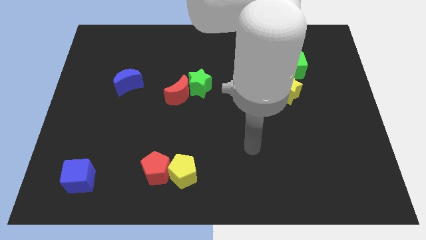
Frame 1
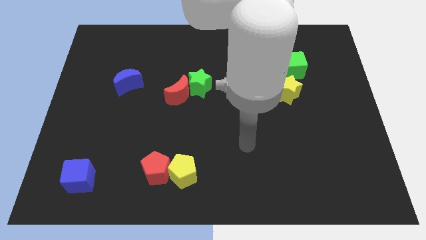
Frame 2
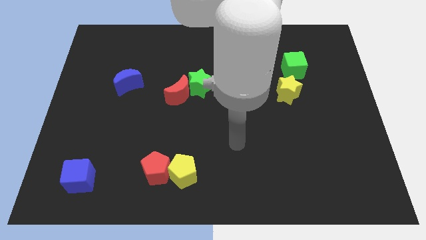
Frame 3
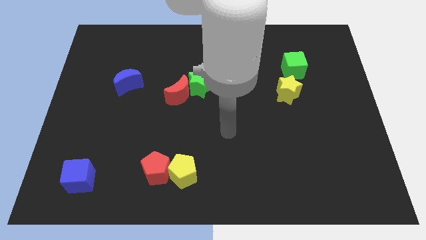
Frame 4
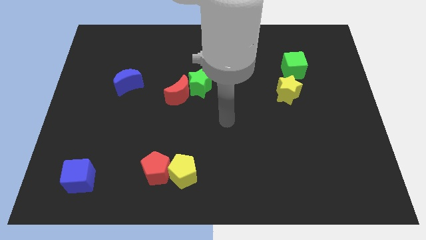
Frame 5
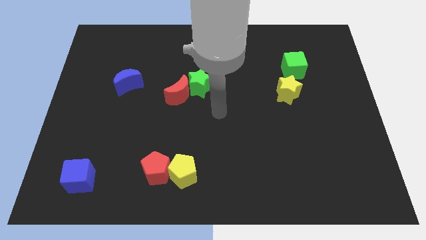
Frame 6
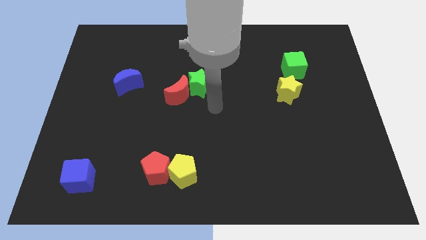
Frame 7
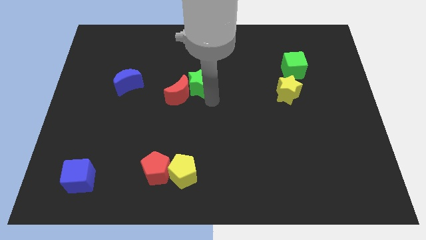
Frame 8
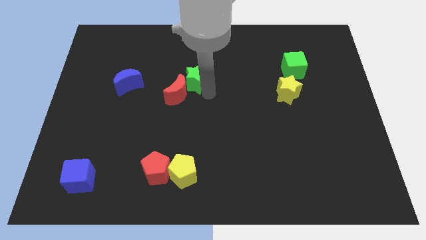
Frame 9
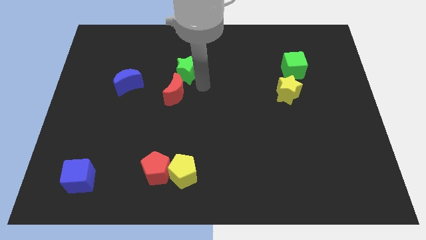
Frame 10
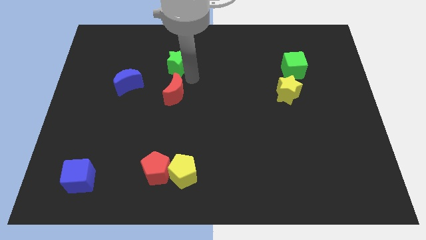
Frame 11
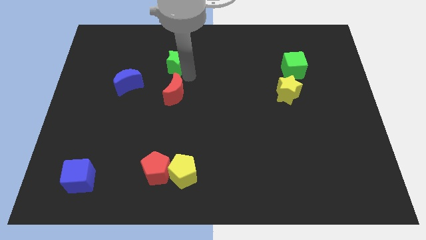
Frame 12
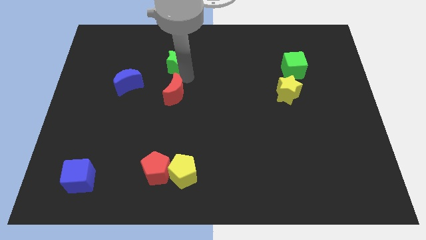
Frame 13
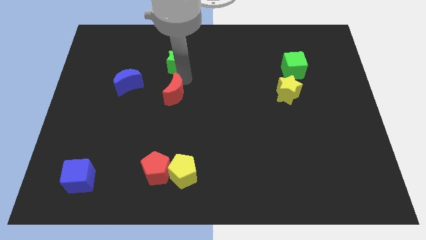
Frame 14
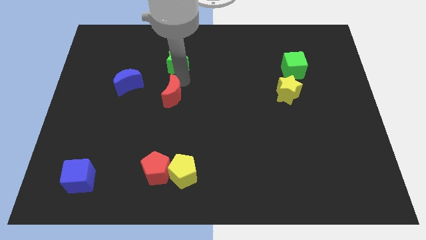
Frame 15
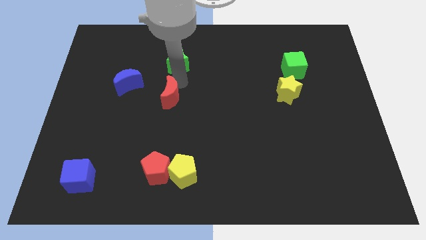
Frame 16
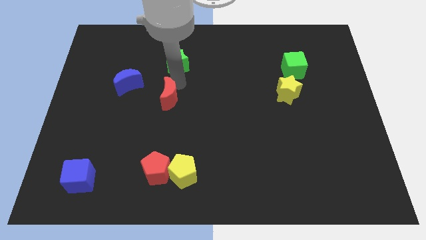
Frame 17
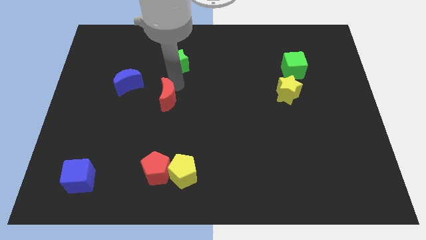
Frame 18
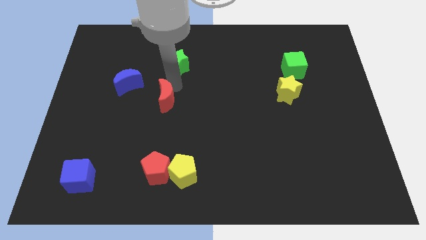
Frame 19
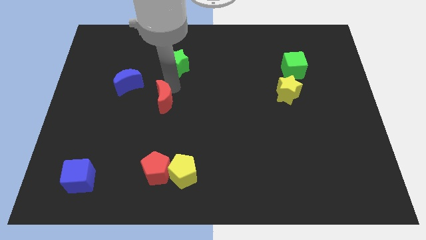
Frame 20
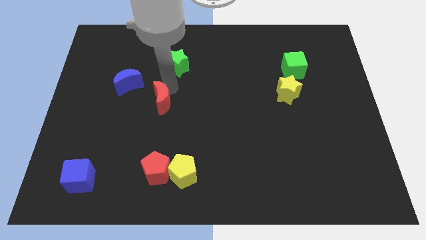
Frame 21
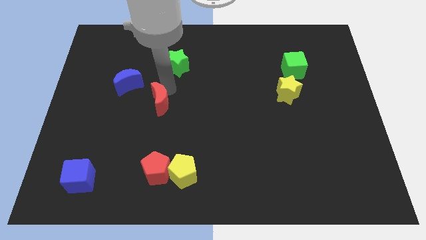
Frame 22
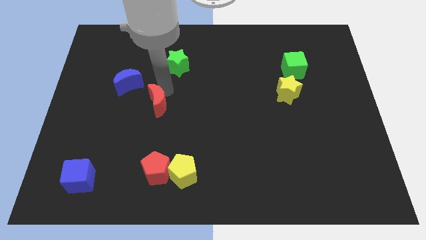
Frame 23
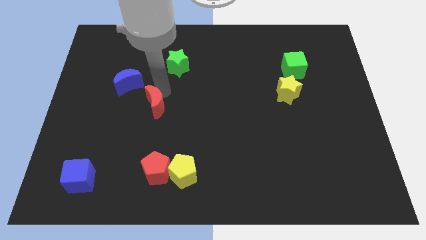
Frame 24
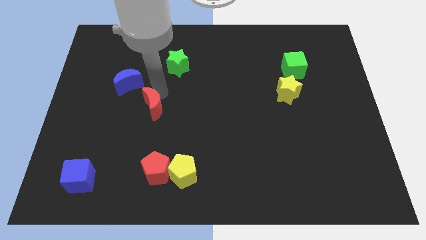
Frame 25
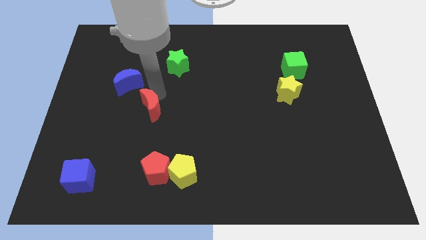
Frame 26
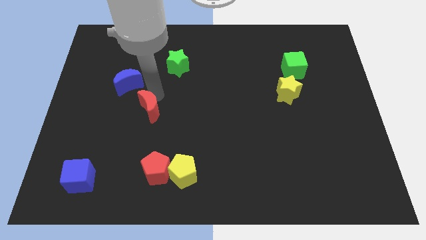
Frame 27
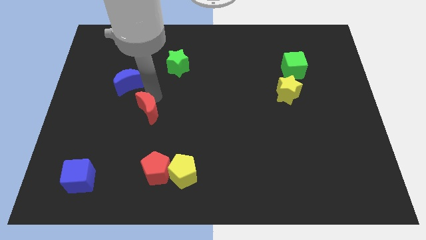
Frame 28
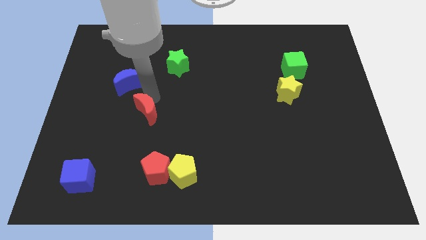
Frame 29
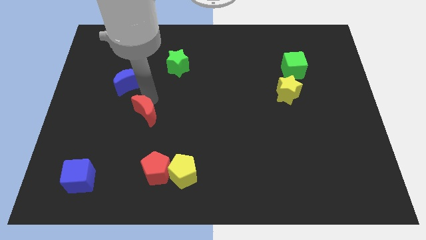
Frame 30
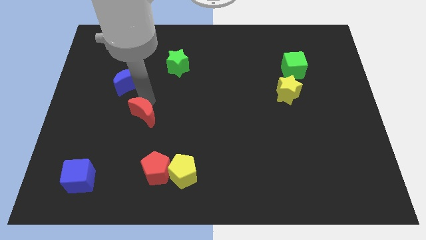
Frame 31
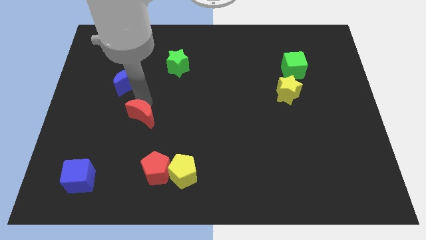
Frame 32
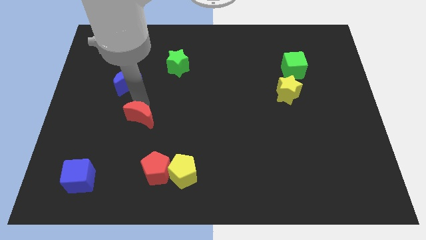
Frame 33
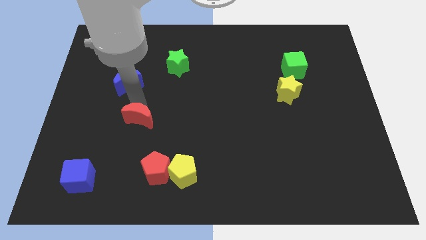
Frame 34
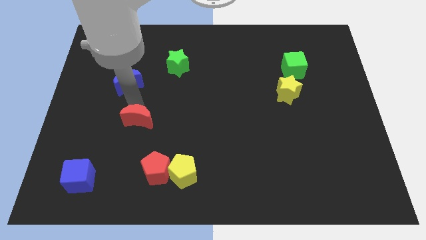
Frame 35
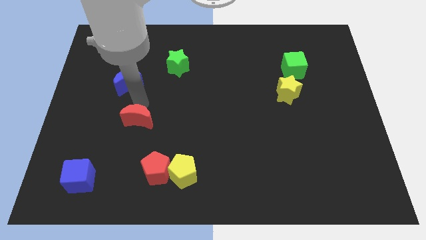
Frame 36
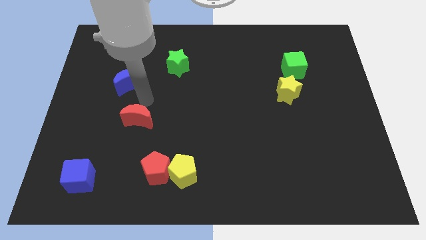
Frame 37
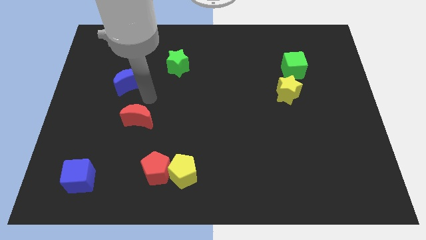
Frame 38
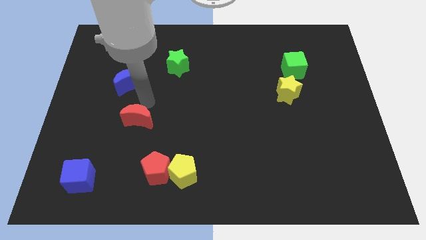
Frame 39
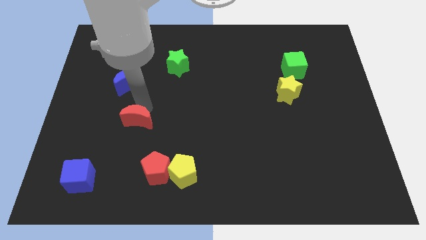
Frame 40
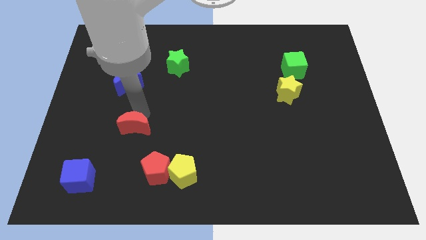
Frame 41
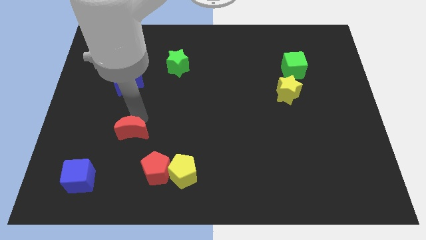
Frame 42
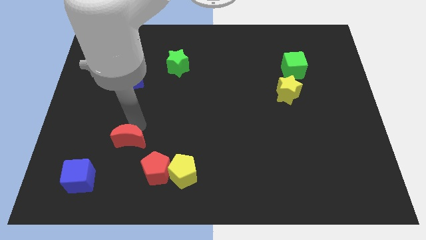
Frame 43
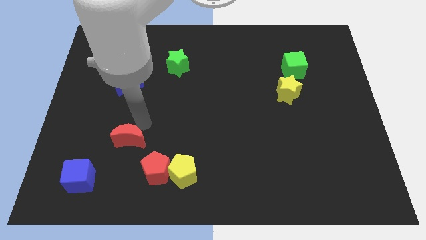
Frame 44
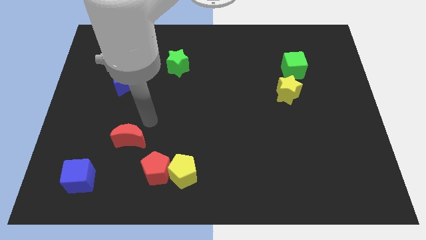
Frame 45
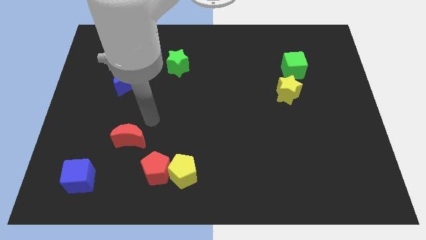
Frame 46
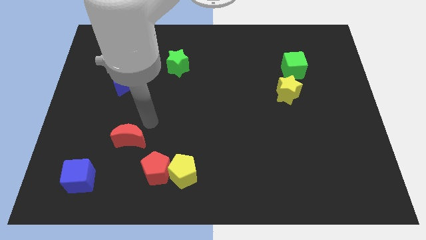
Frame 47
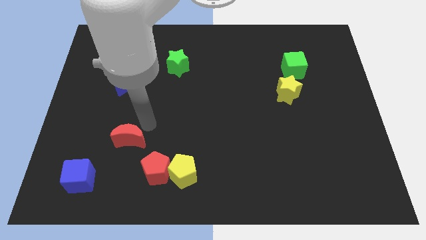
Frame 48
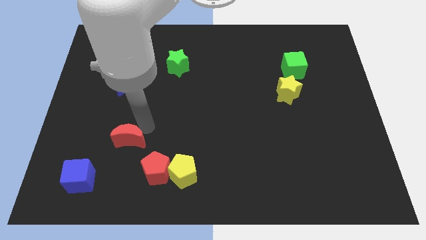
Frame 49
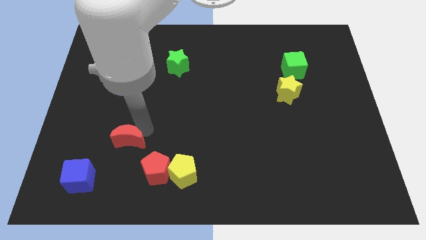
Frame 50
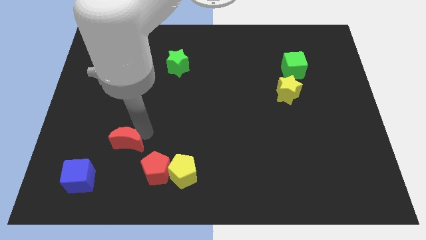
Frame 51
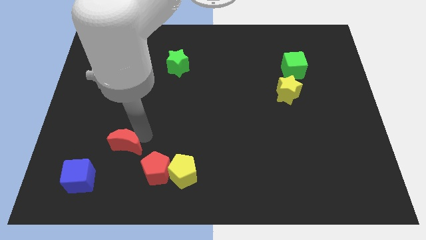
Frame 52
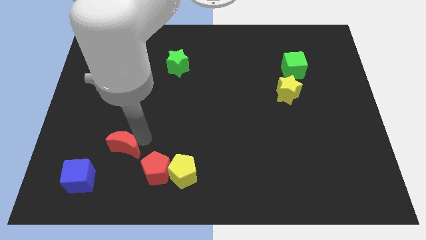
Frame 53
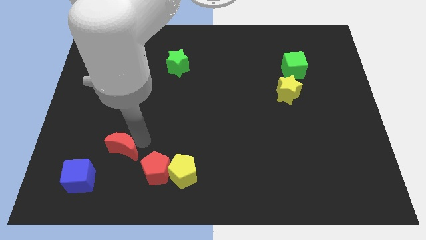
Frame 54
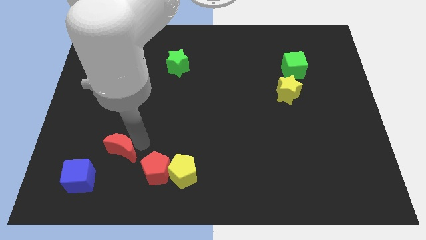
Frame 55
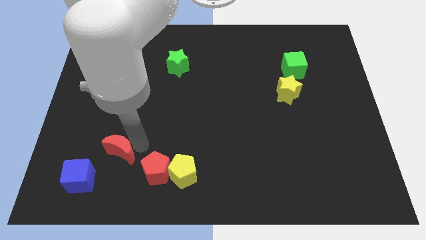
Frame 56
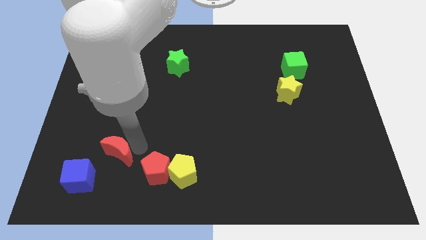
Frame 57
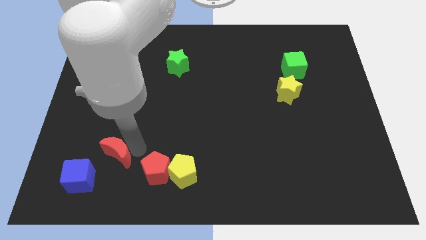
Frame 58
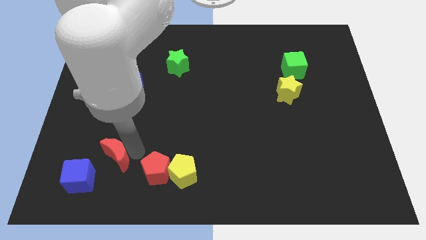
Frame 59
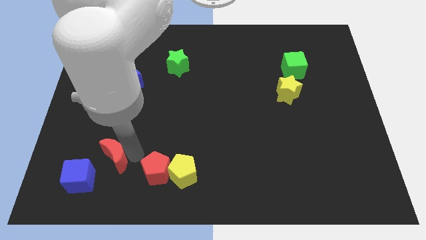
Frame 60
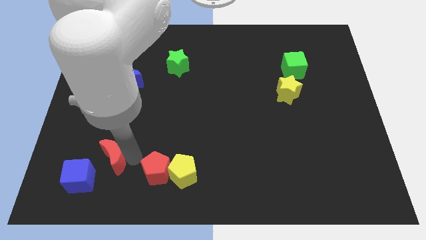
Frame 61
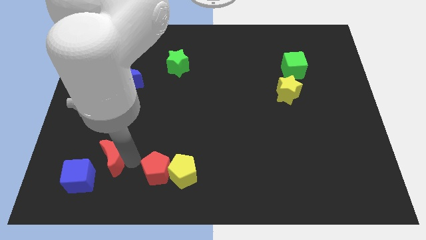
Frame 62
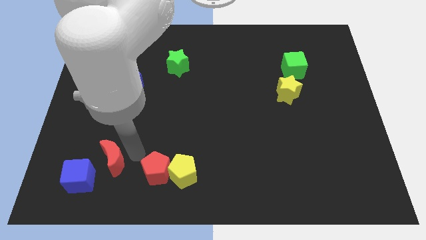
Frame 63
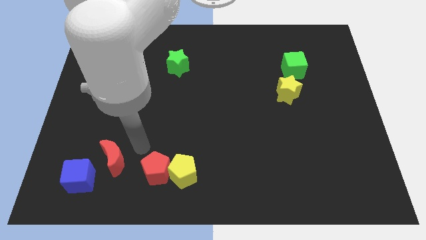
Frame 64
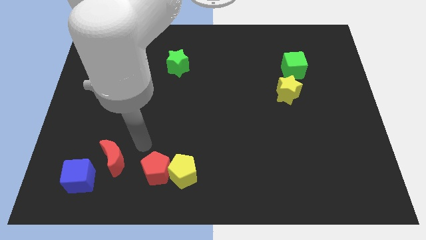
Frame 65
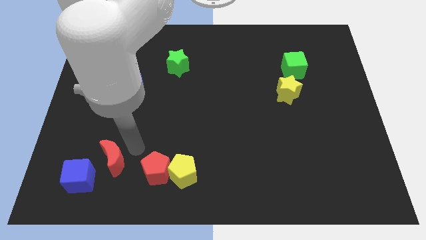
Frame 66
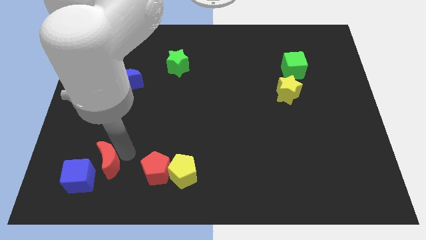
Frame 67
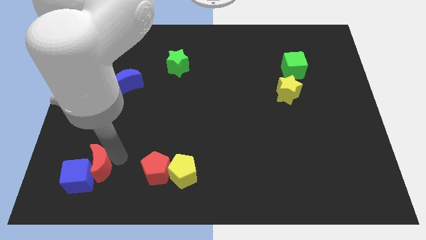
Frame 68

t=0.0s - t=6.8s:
put the red moon close to the blue cube
